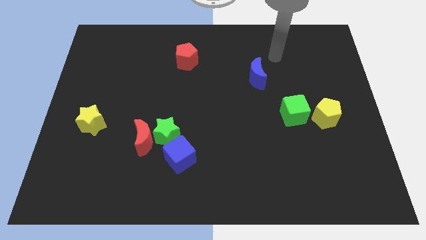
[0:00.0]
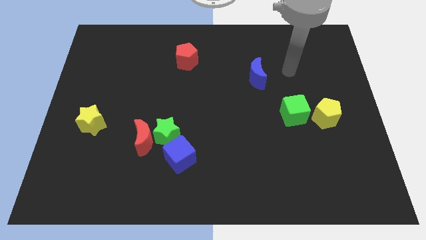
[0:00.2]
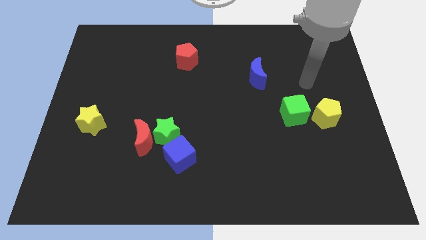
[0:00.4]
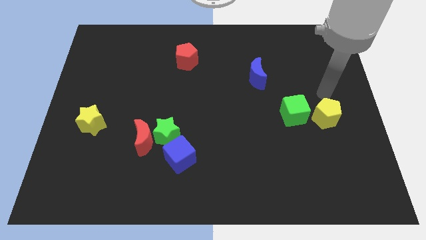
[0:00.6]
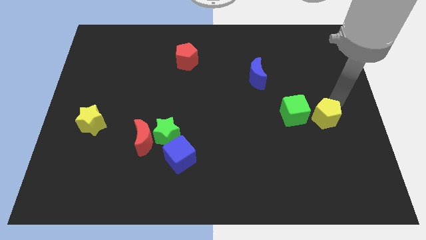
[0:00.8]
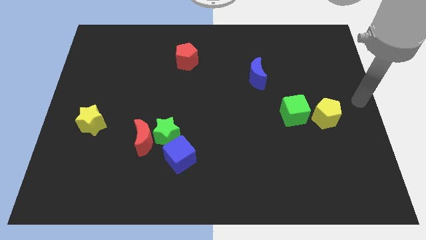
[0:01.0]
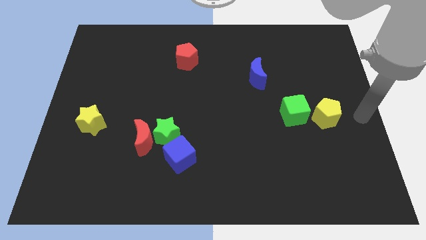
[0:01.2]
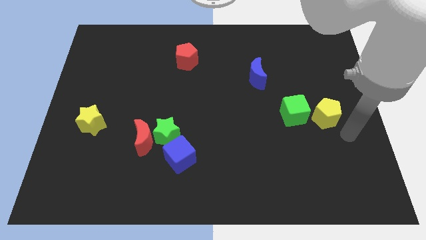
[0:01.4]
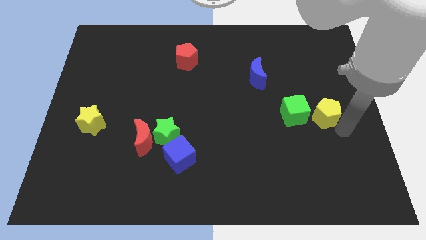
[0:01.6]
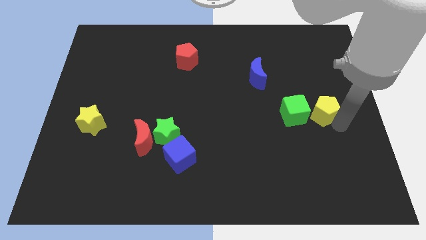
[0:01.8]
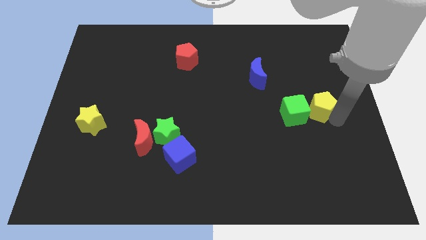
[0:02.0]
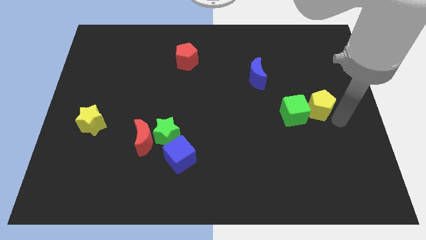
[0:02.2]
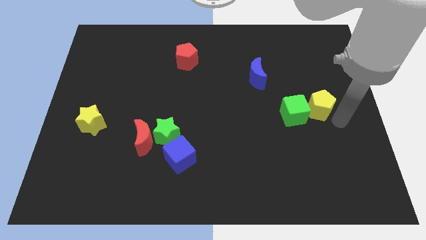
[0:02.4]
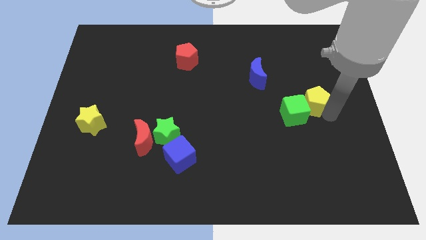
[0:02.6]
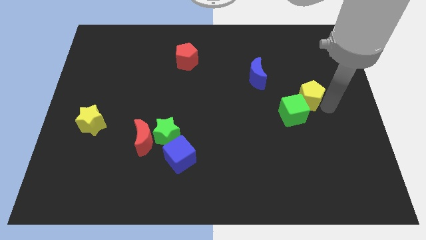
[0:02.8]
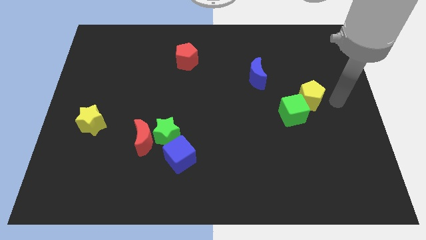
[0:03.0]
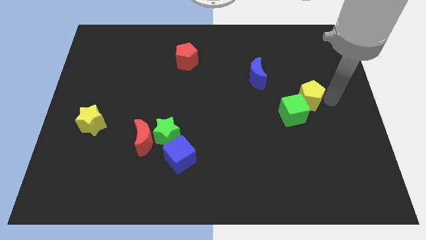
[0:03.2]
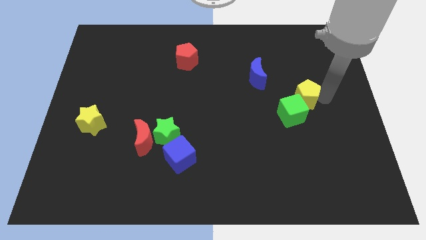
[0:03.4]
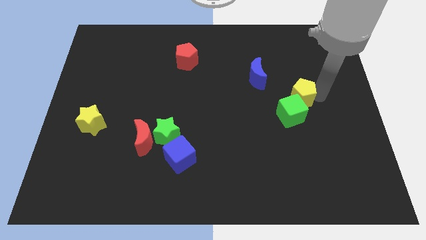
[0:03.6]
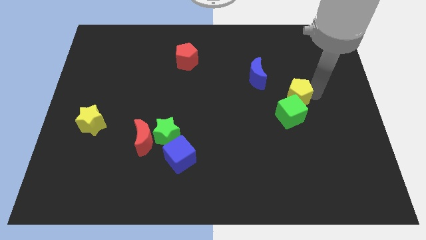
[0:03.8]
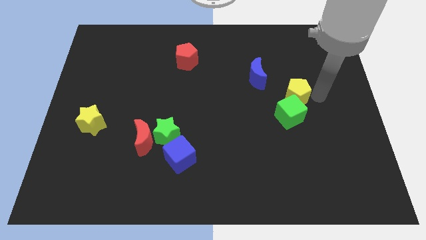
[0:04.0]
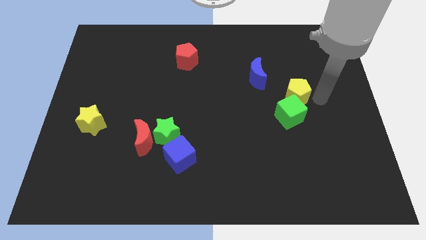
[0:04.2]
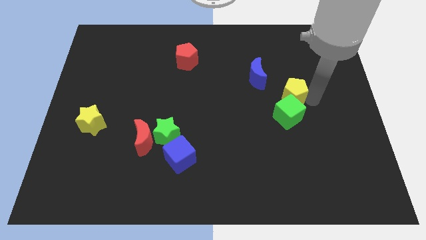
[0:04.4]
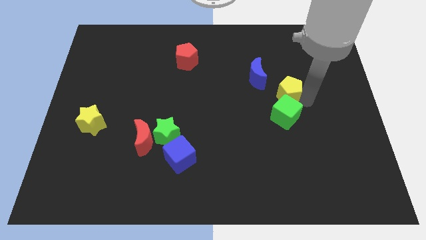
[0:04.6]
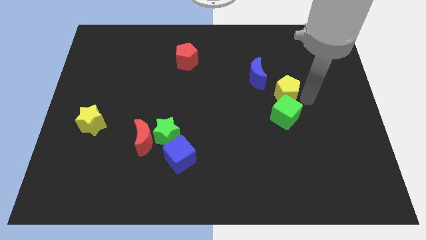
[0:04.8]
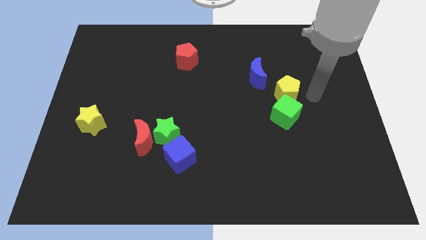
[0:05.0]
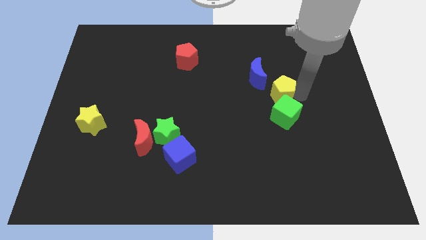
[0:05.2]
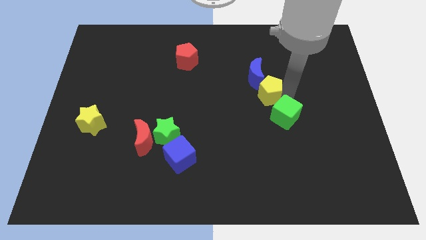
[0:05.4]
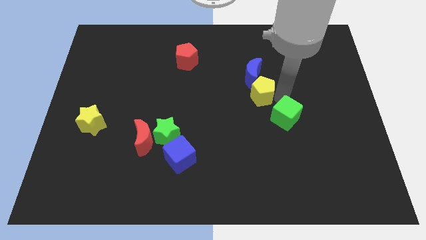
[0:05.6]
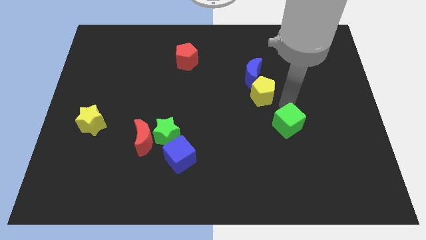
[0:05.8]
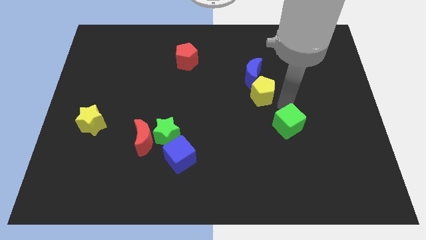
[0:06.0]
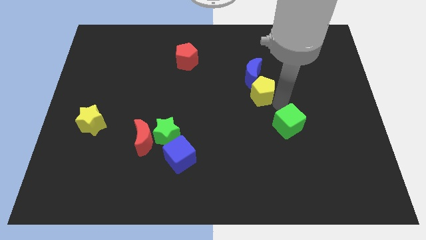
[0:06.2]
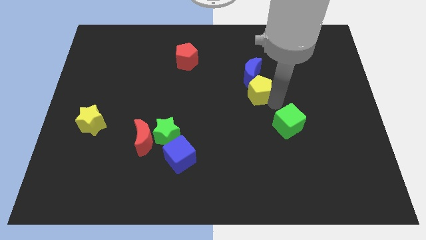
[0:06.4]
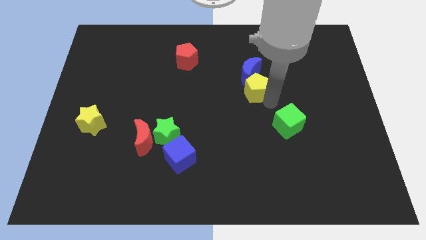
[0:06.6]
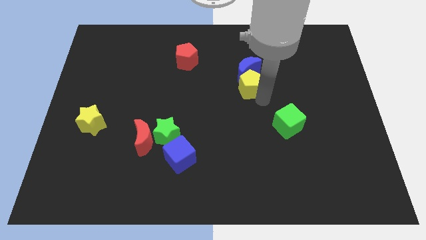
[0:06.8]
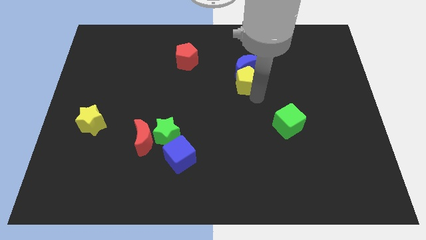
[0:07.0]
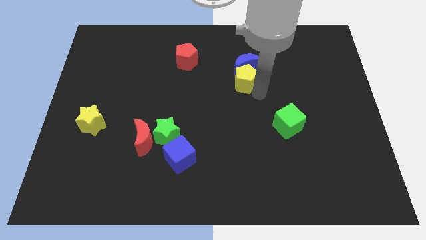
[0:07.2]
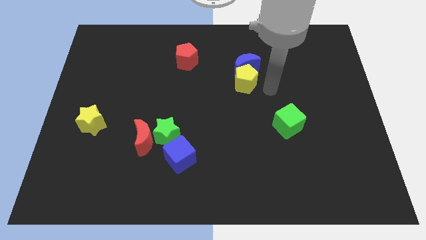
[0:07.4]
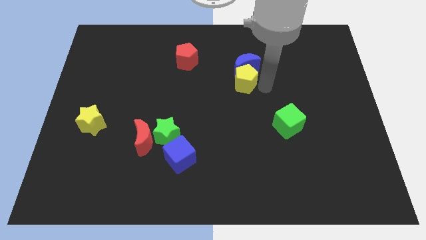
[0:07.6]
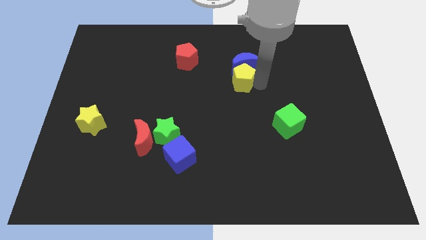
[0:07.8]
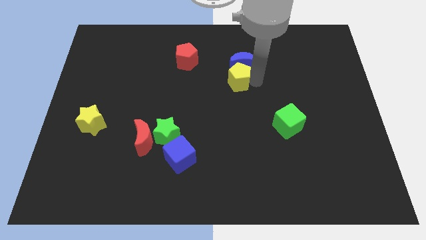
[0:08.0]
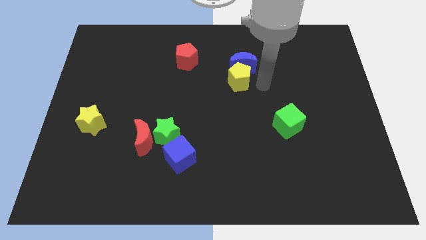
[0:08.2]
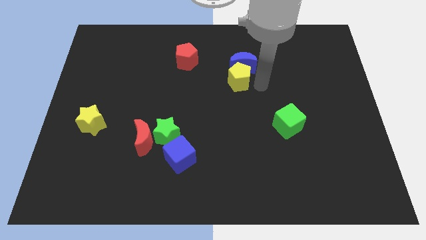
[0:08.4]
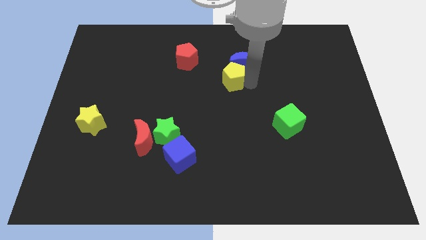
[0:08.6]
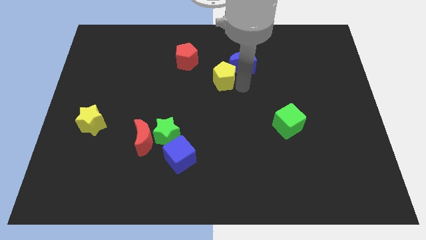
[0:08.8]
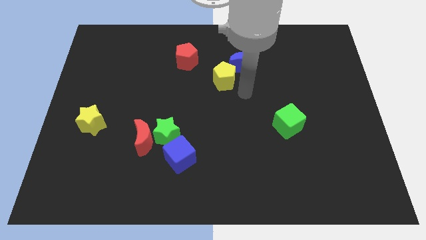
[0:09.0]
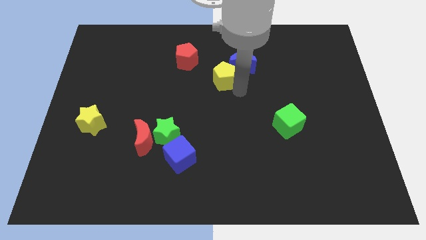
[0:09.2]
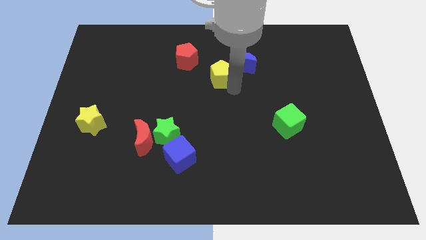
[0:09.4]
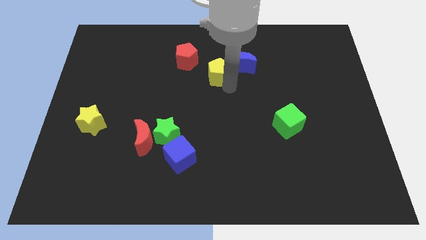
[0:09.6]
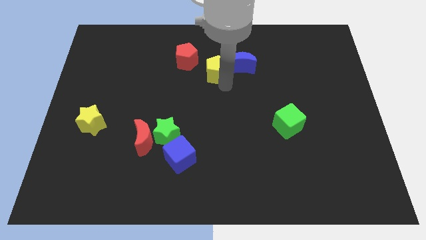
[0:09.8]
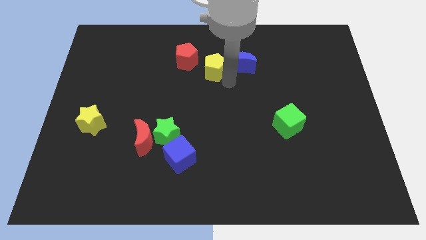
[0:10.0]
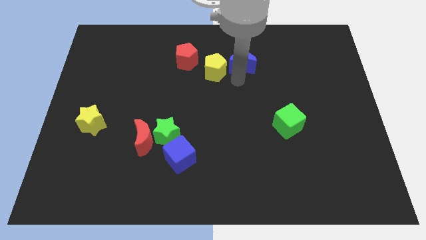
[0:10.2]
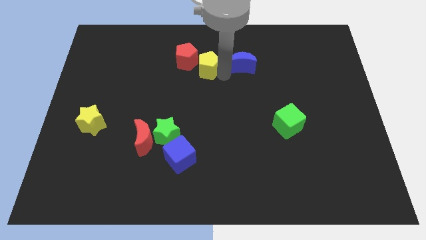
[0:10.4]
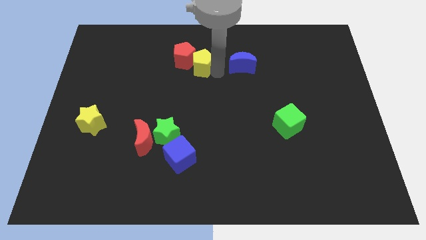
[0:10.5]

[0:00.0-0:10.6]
put the yellow pentagon close to the red pentagon

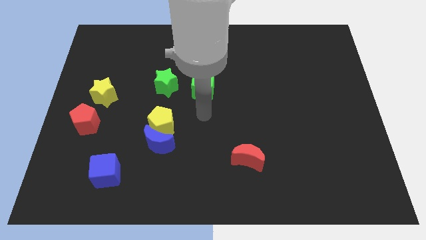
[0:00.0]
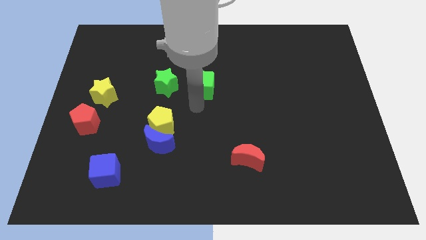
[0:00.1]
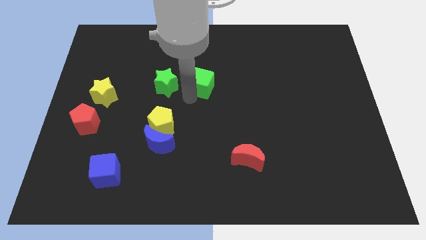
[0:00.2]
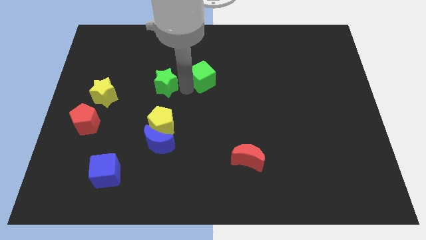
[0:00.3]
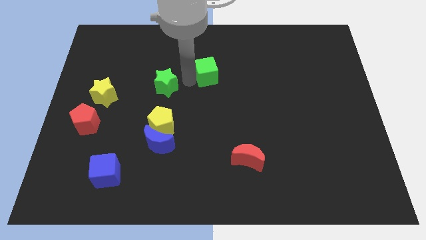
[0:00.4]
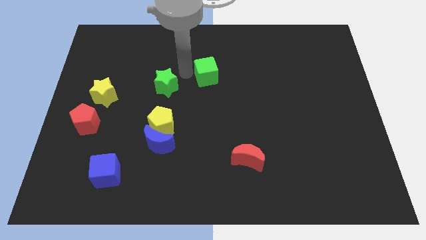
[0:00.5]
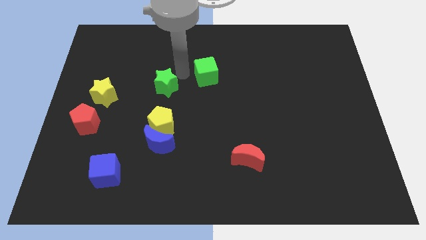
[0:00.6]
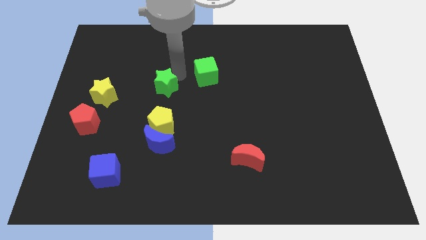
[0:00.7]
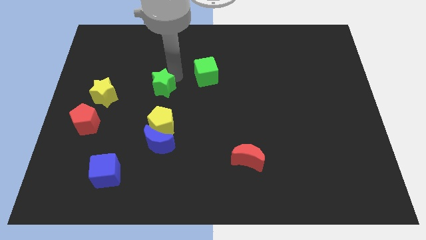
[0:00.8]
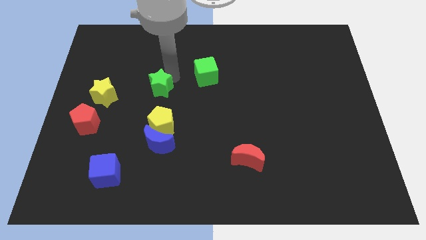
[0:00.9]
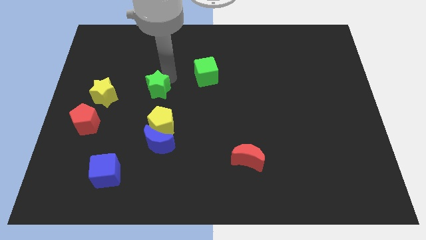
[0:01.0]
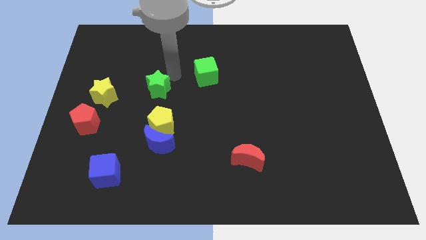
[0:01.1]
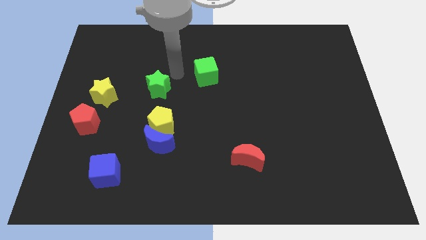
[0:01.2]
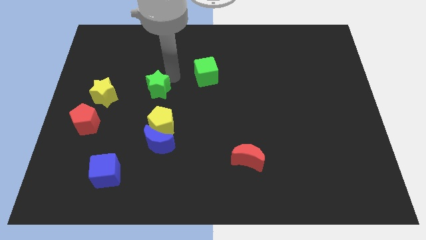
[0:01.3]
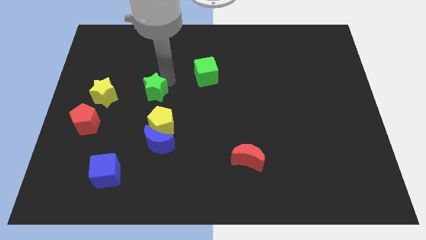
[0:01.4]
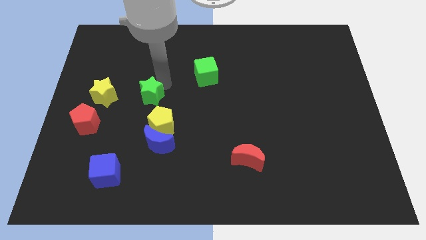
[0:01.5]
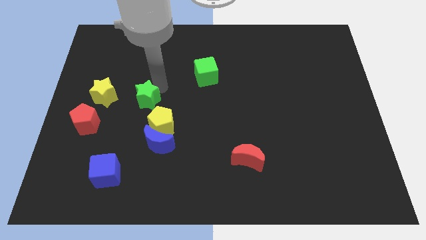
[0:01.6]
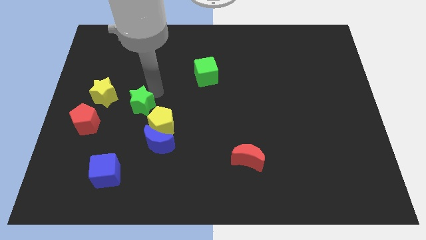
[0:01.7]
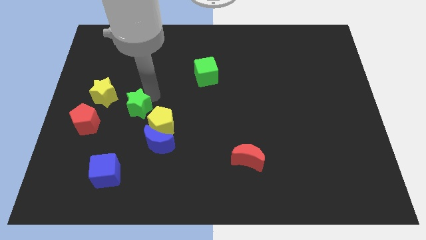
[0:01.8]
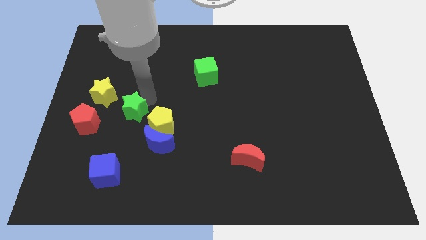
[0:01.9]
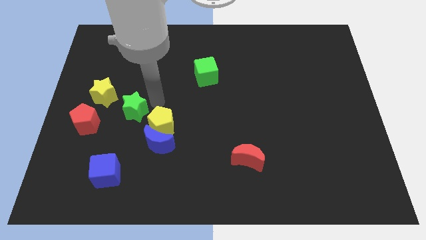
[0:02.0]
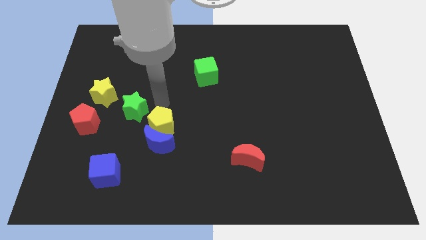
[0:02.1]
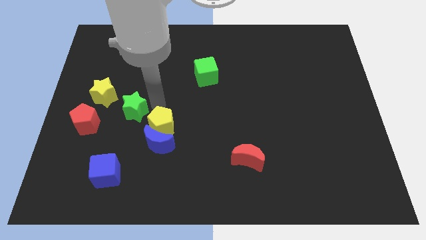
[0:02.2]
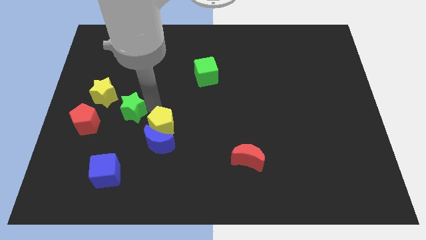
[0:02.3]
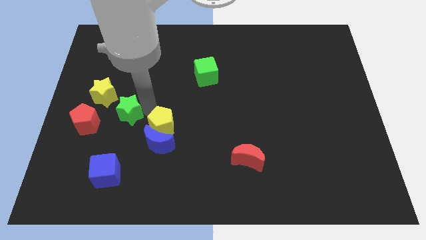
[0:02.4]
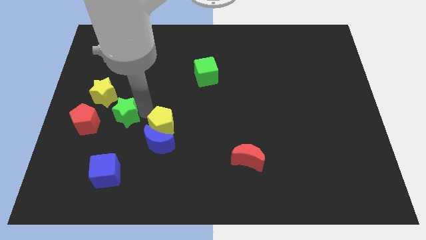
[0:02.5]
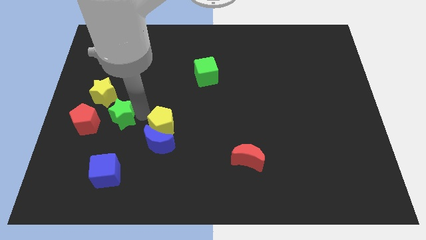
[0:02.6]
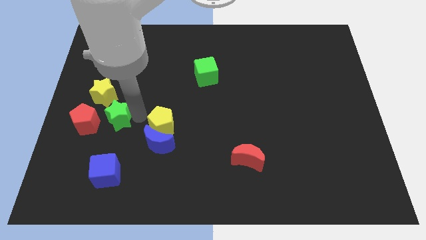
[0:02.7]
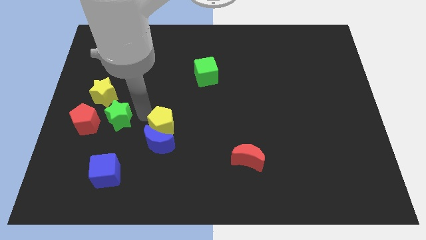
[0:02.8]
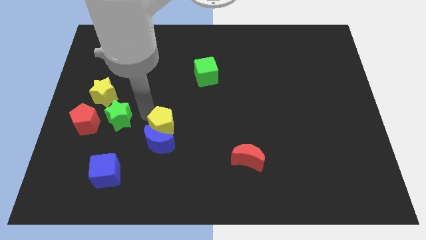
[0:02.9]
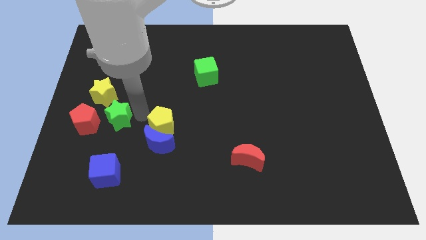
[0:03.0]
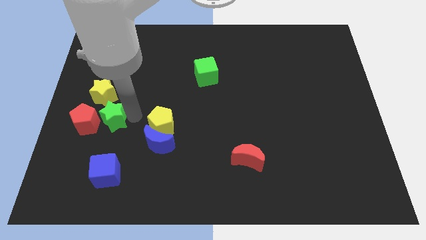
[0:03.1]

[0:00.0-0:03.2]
push the green star close to the red pentagon
